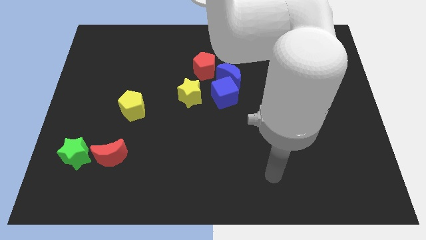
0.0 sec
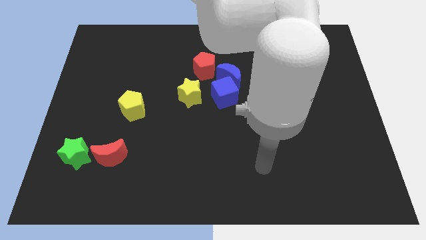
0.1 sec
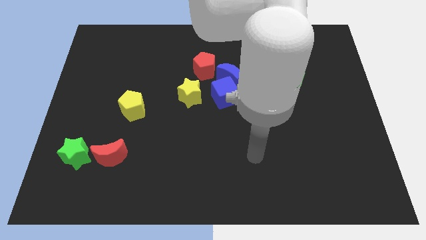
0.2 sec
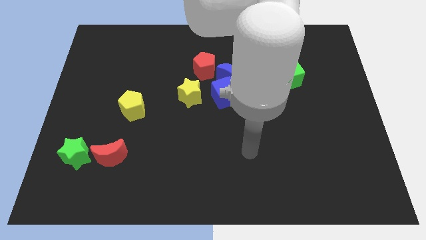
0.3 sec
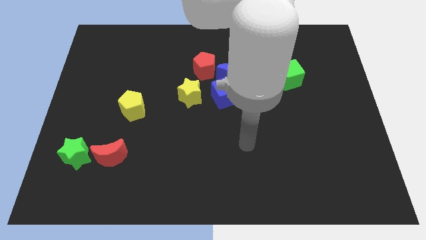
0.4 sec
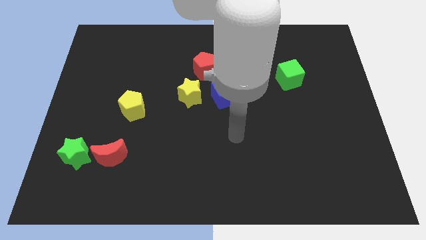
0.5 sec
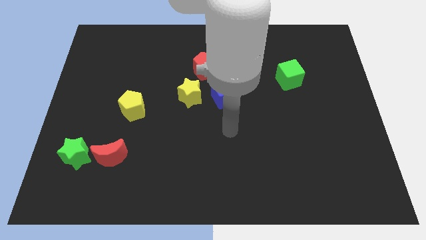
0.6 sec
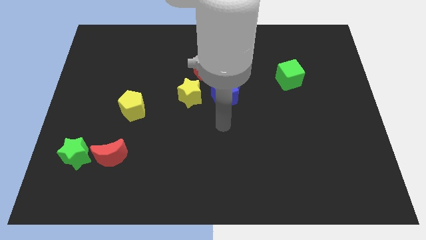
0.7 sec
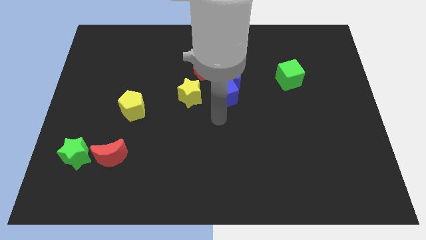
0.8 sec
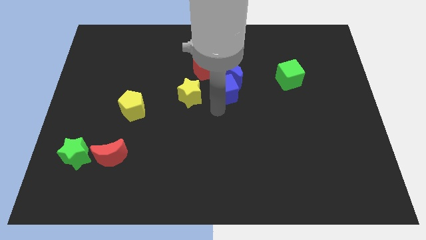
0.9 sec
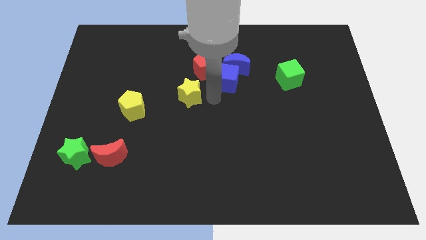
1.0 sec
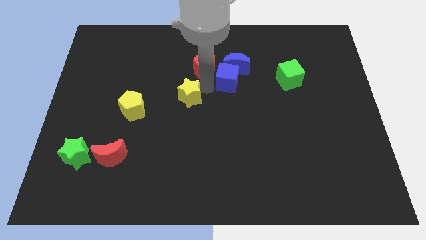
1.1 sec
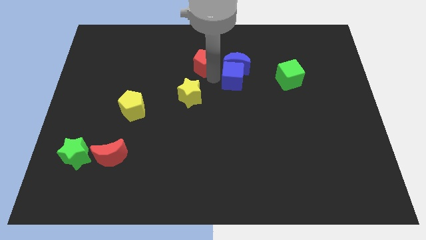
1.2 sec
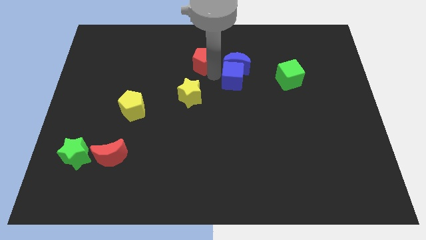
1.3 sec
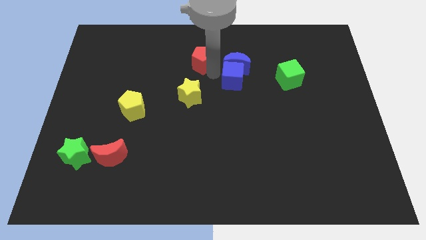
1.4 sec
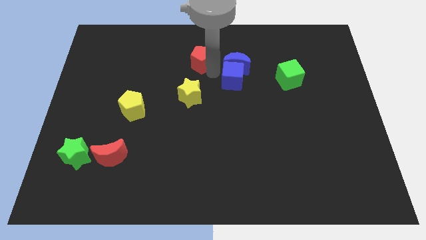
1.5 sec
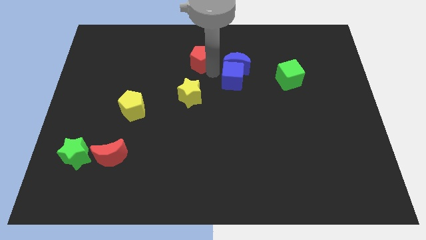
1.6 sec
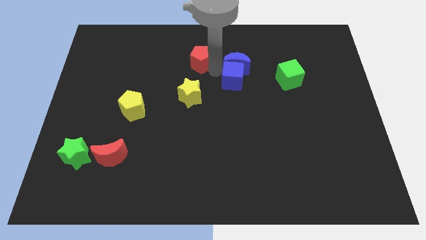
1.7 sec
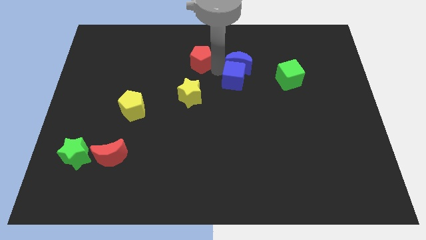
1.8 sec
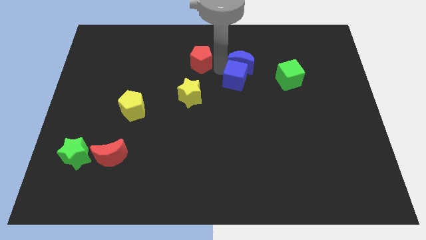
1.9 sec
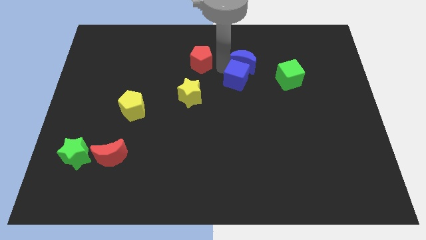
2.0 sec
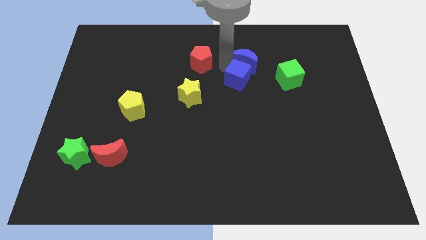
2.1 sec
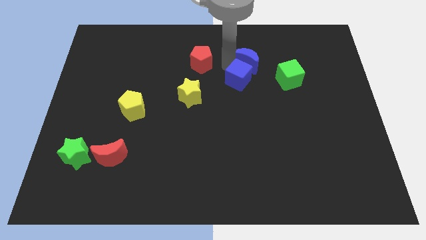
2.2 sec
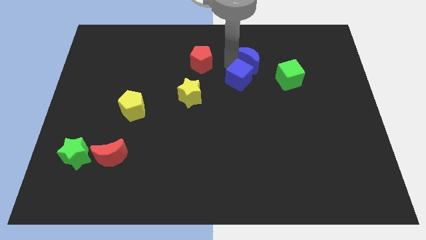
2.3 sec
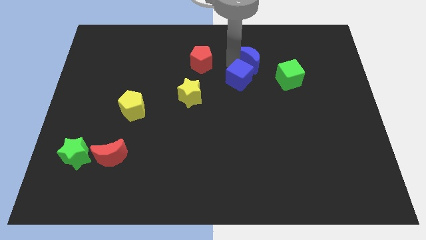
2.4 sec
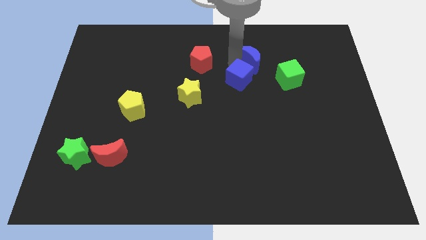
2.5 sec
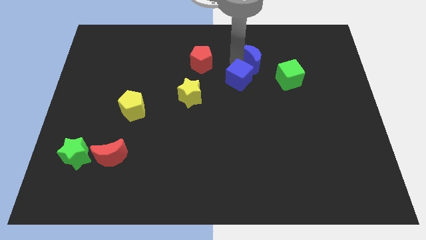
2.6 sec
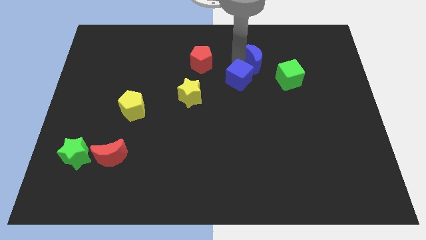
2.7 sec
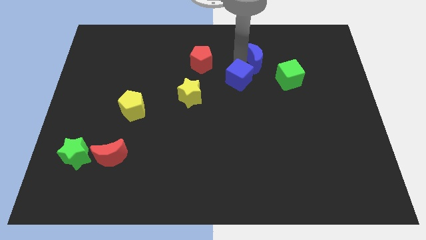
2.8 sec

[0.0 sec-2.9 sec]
move the blue moon away from the blue cube and red pentagon

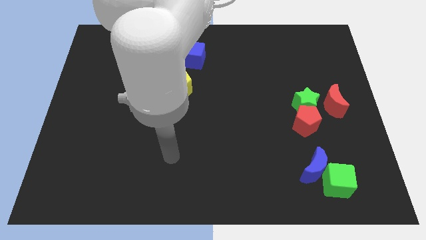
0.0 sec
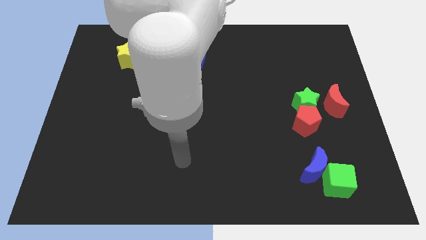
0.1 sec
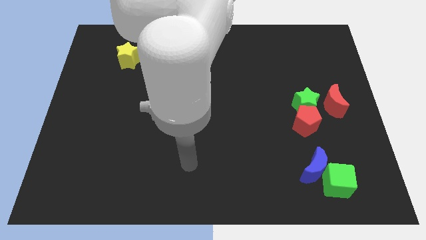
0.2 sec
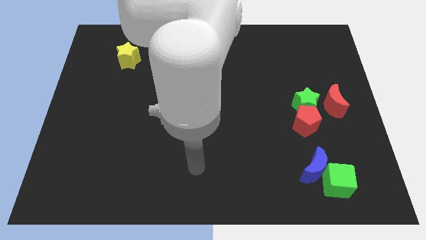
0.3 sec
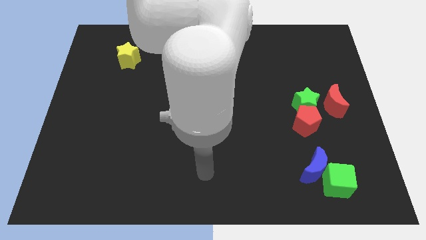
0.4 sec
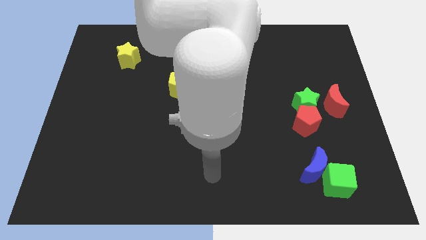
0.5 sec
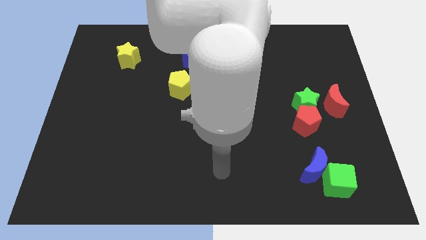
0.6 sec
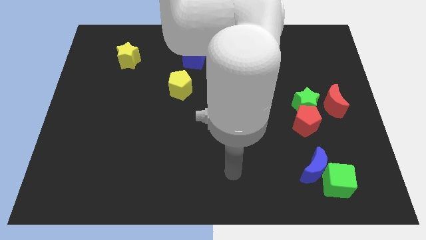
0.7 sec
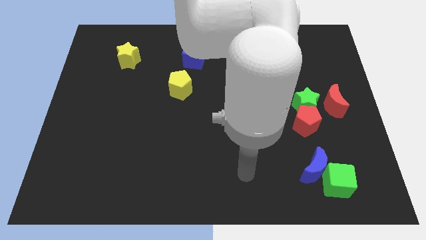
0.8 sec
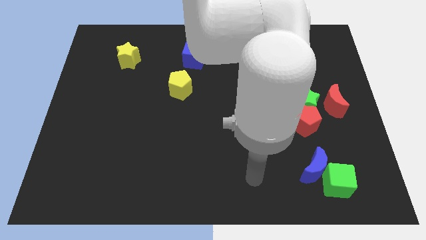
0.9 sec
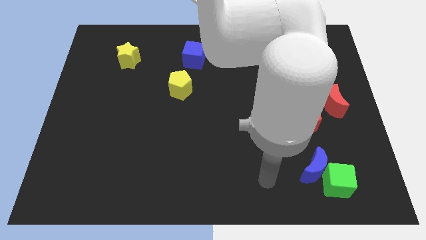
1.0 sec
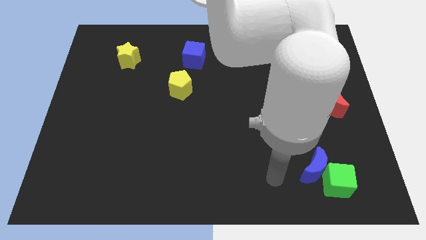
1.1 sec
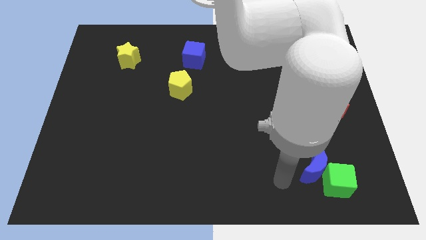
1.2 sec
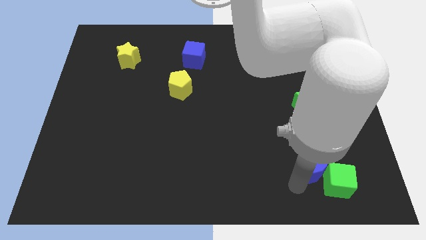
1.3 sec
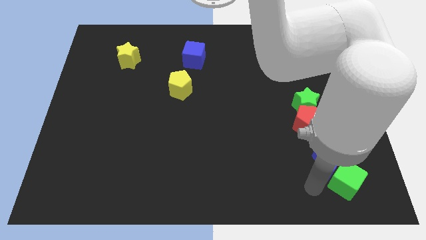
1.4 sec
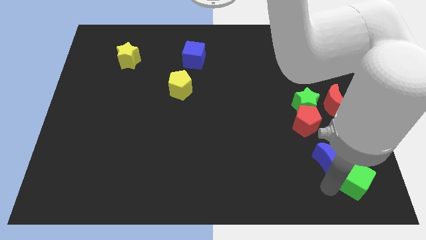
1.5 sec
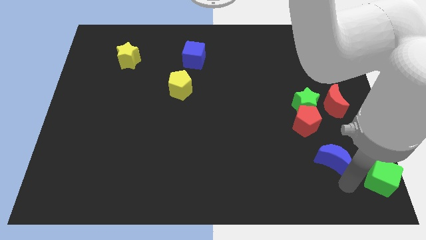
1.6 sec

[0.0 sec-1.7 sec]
separate the blue moon from the green cube

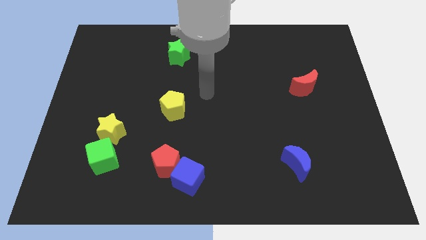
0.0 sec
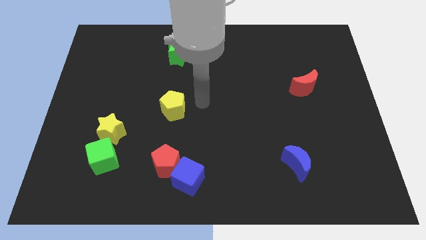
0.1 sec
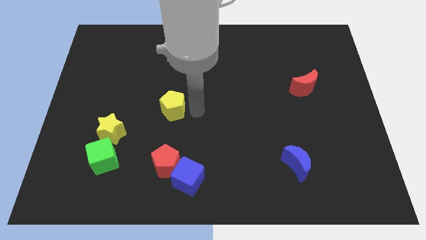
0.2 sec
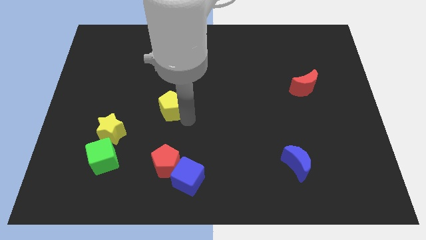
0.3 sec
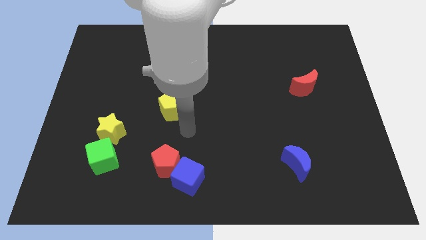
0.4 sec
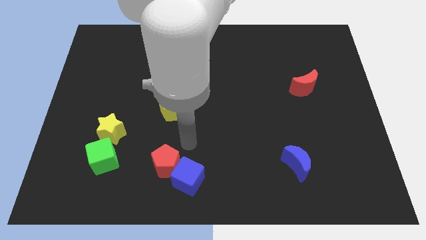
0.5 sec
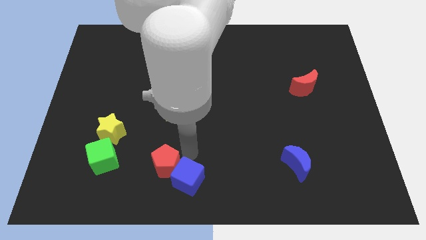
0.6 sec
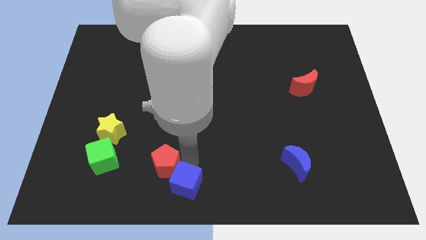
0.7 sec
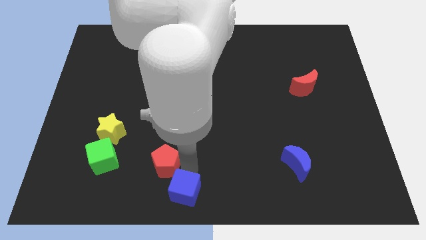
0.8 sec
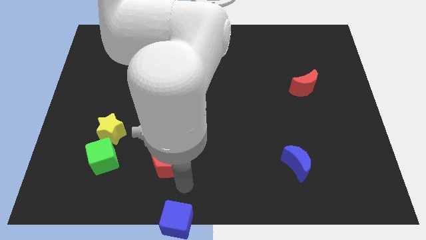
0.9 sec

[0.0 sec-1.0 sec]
pull the red pentagon apart from the blue cube

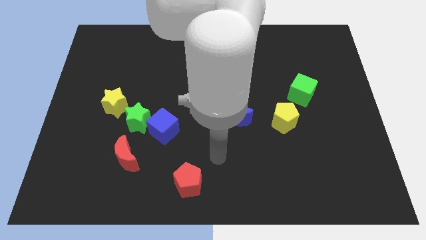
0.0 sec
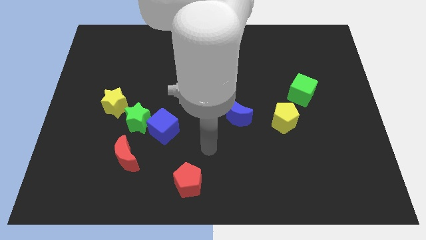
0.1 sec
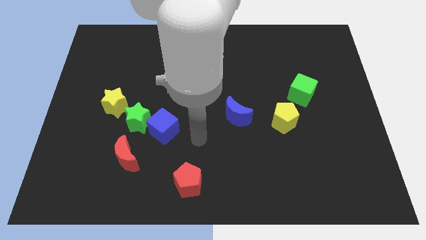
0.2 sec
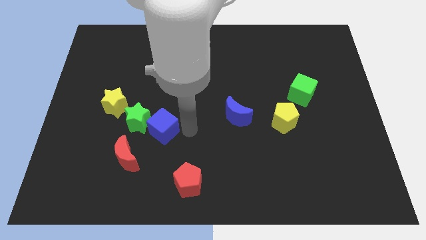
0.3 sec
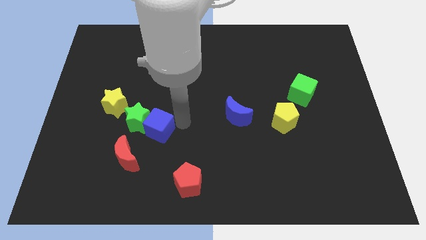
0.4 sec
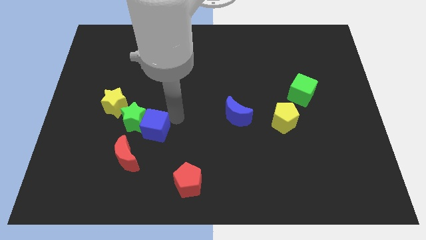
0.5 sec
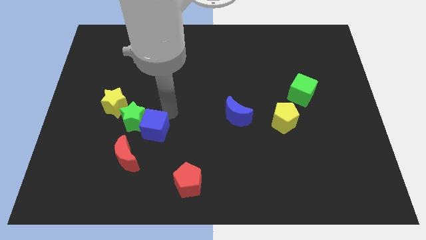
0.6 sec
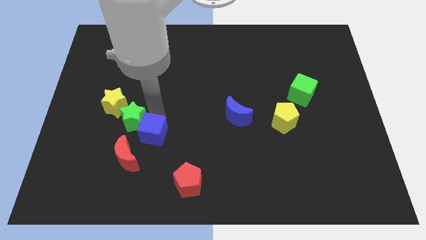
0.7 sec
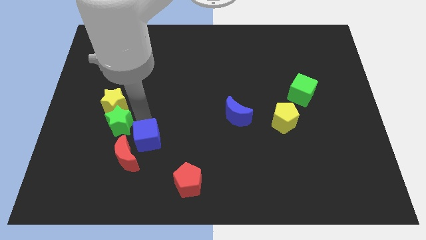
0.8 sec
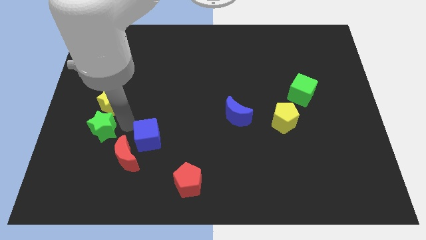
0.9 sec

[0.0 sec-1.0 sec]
move the blue cube away from the green star

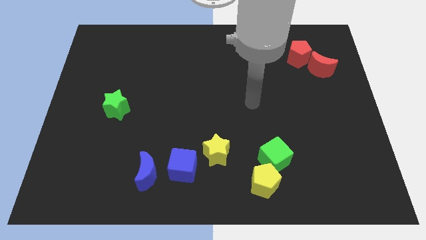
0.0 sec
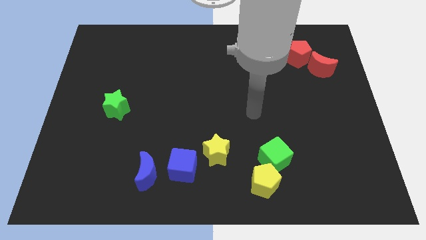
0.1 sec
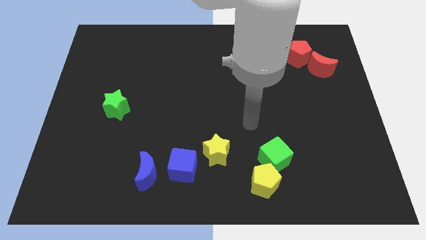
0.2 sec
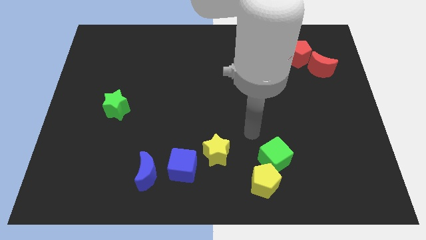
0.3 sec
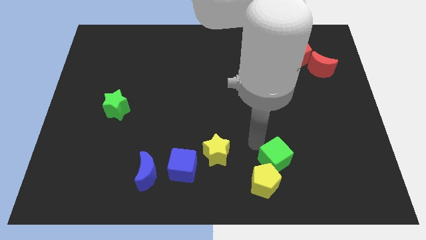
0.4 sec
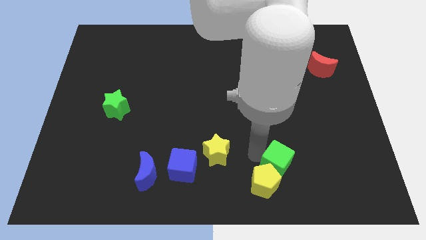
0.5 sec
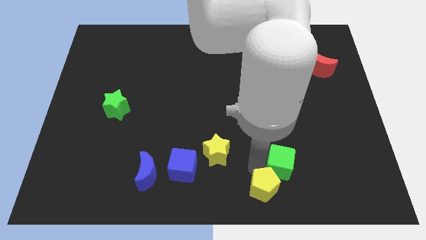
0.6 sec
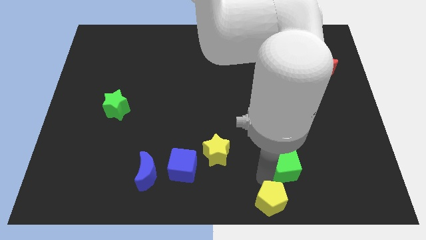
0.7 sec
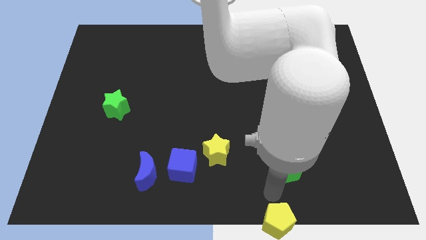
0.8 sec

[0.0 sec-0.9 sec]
separate the green cube from the yellow pentagon

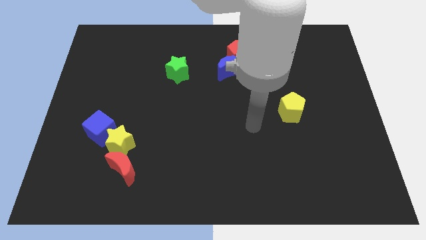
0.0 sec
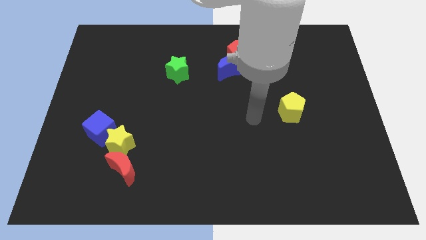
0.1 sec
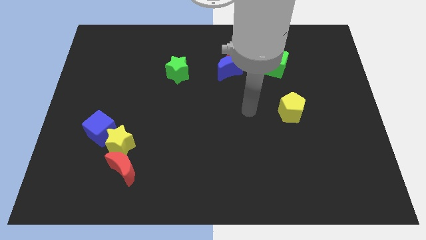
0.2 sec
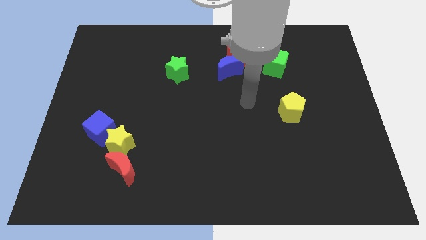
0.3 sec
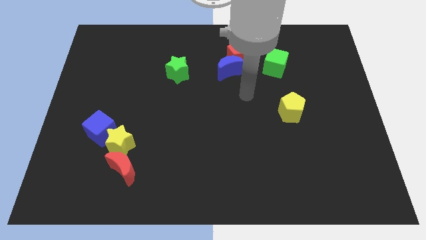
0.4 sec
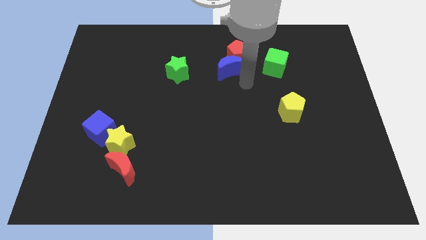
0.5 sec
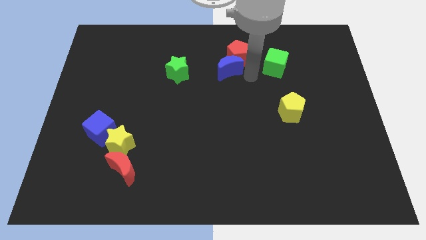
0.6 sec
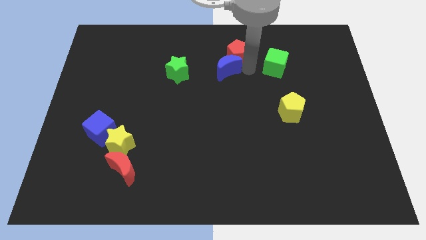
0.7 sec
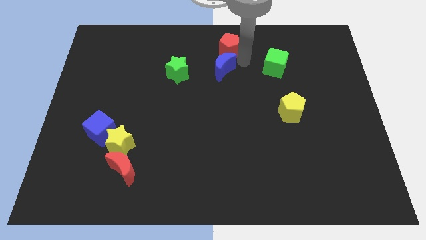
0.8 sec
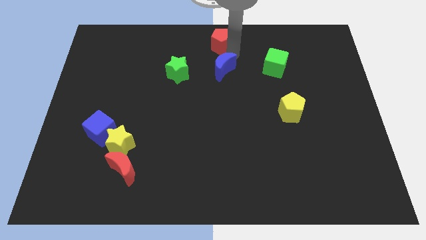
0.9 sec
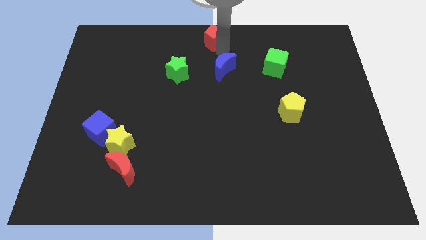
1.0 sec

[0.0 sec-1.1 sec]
separate the blue moon from the red pentagon

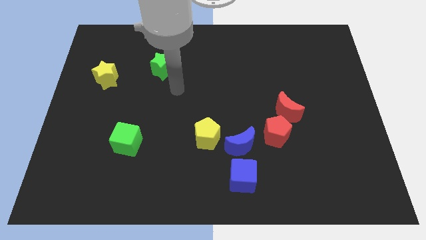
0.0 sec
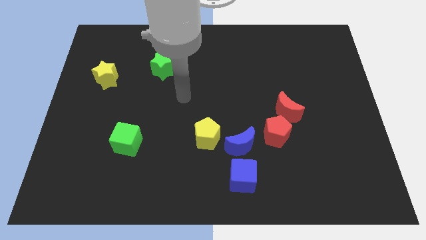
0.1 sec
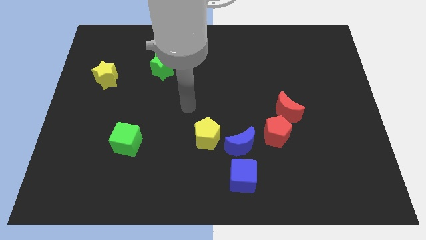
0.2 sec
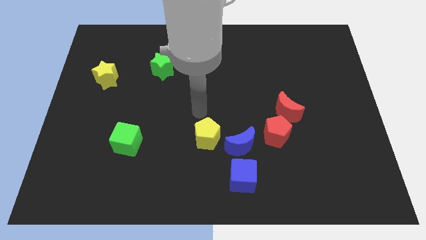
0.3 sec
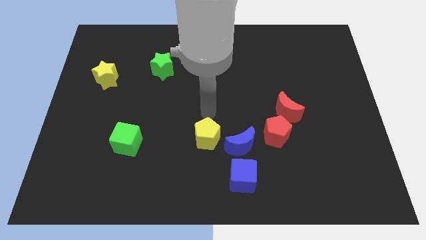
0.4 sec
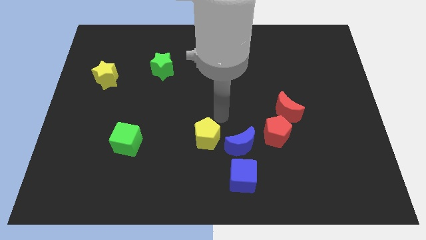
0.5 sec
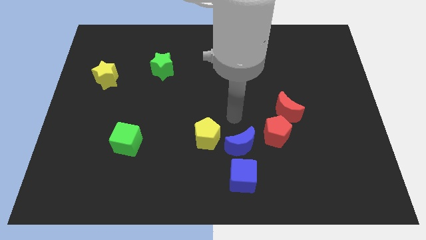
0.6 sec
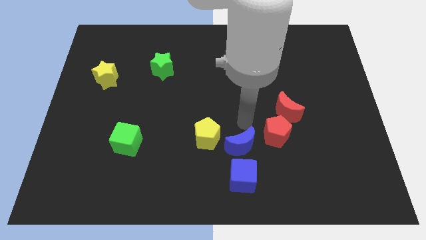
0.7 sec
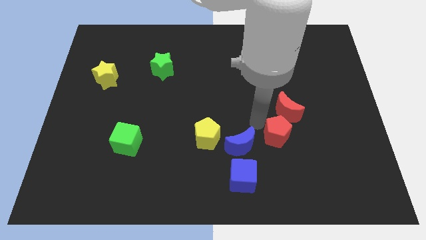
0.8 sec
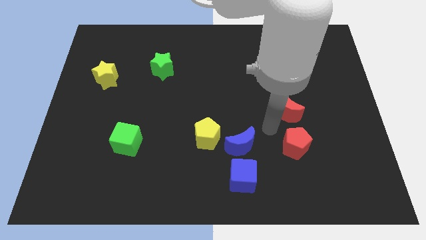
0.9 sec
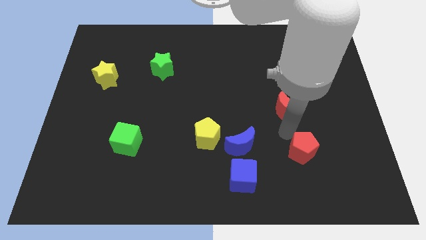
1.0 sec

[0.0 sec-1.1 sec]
pull the red moon apart from the red pentagon
